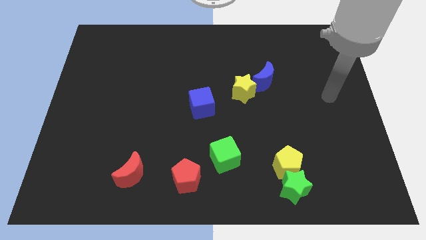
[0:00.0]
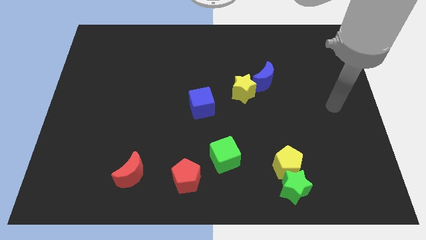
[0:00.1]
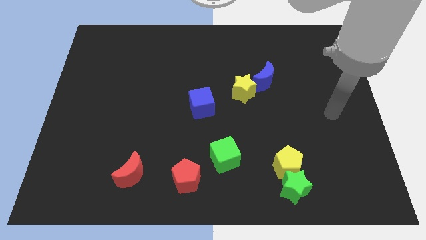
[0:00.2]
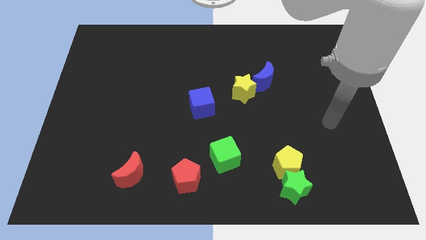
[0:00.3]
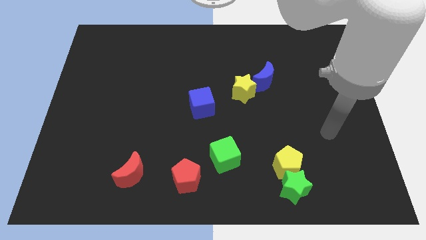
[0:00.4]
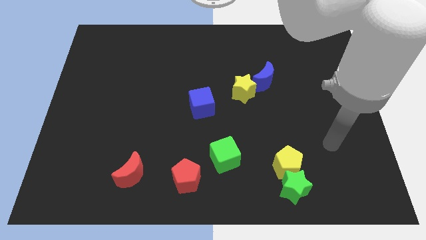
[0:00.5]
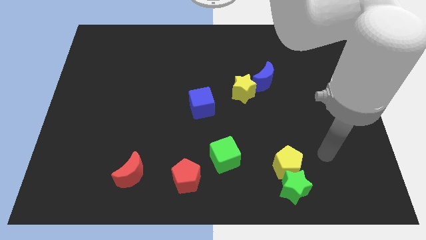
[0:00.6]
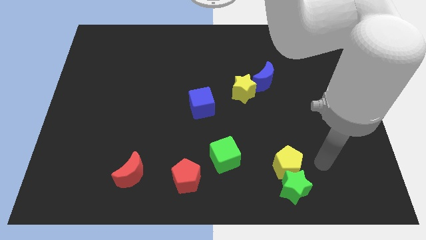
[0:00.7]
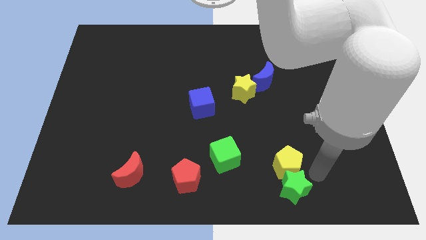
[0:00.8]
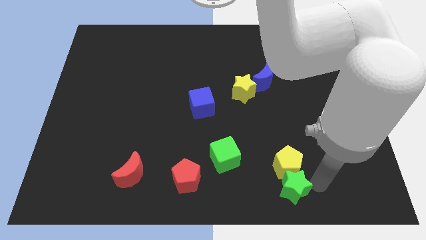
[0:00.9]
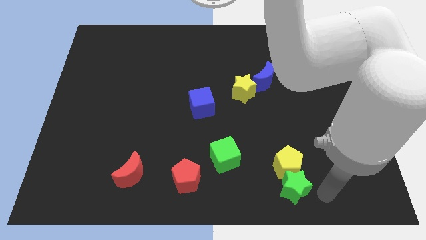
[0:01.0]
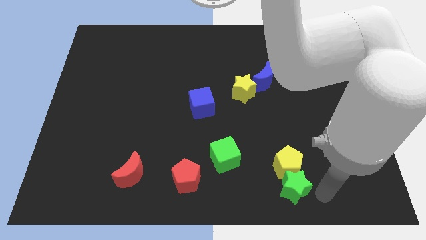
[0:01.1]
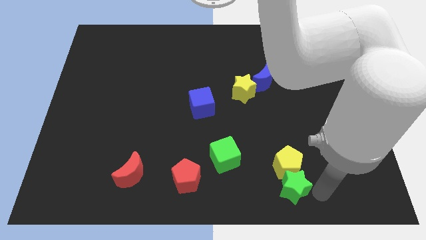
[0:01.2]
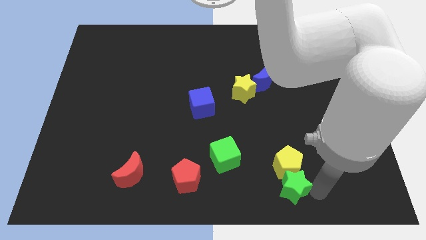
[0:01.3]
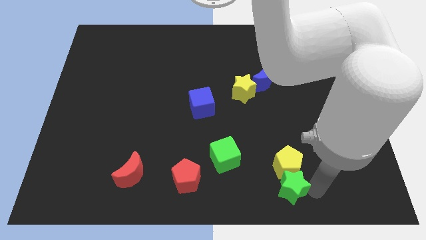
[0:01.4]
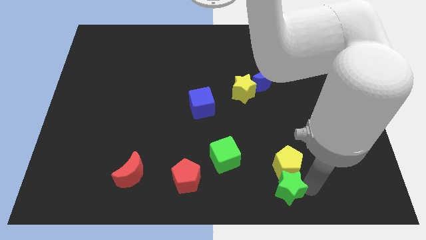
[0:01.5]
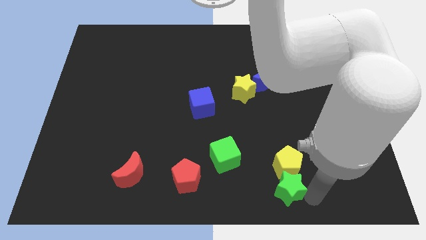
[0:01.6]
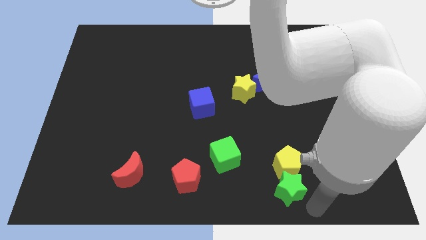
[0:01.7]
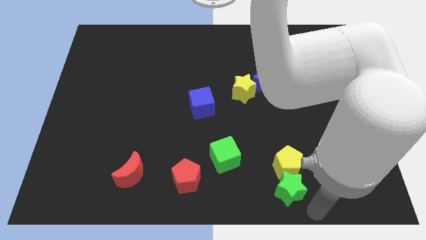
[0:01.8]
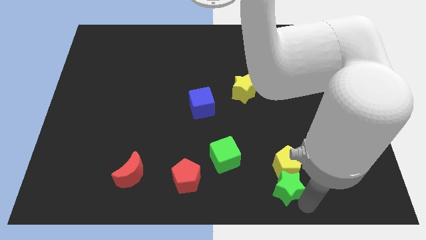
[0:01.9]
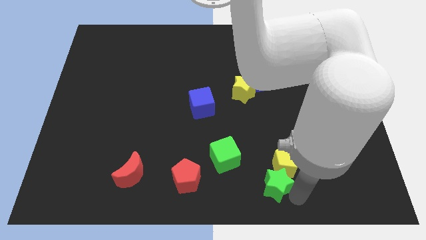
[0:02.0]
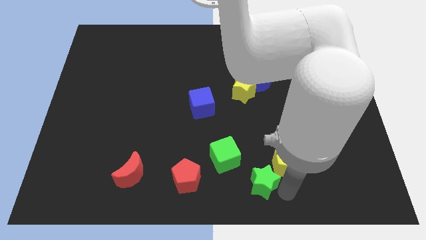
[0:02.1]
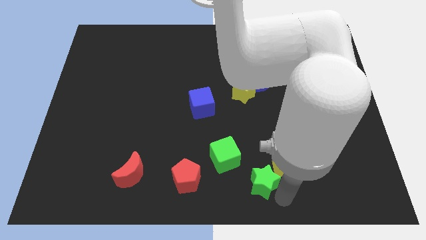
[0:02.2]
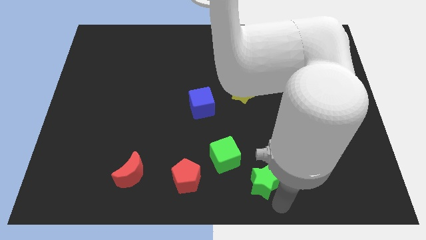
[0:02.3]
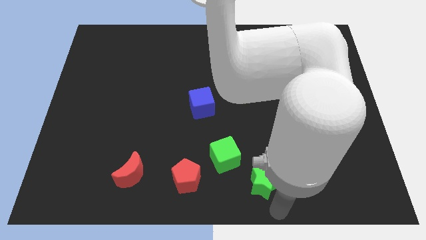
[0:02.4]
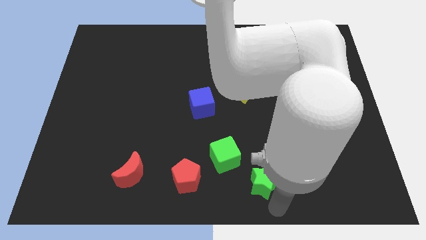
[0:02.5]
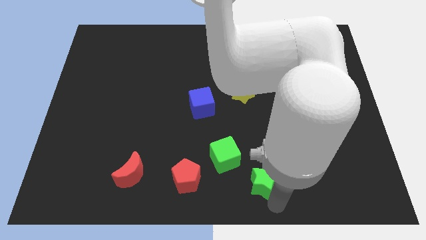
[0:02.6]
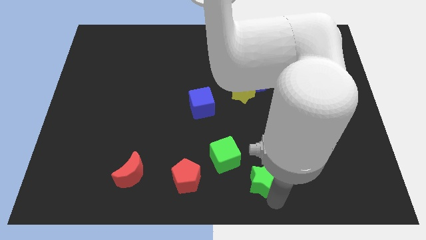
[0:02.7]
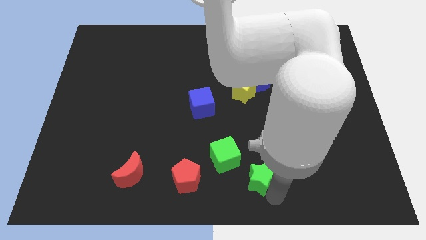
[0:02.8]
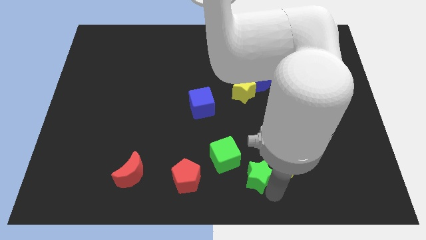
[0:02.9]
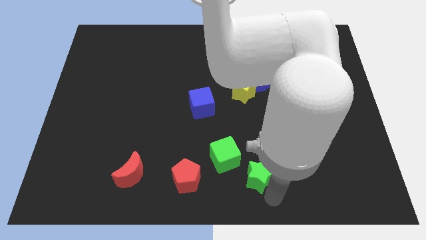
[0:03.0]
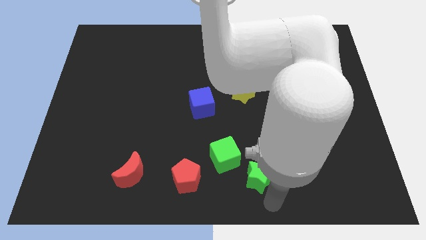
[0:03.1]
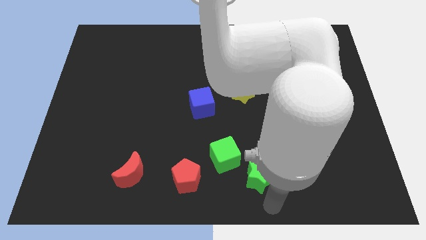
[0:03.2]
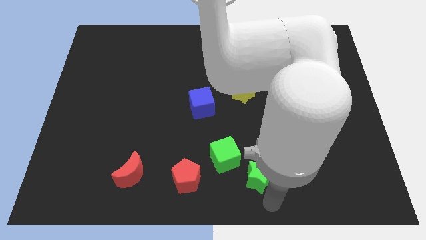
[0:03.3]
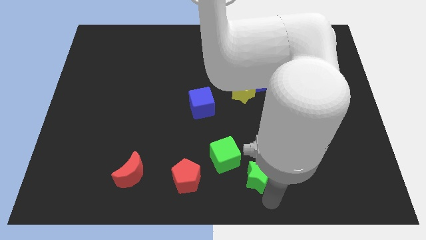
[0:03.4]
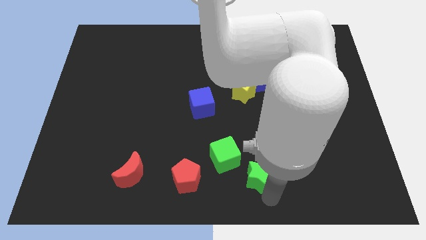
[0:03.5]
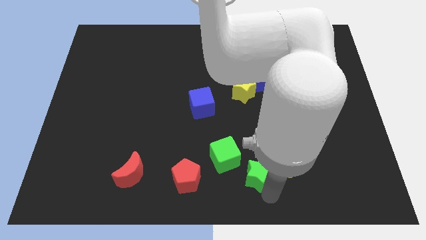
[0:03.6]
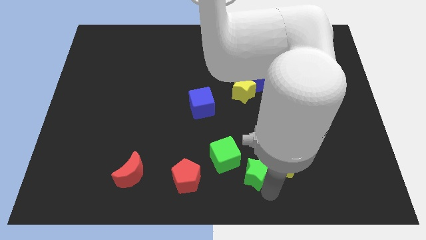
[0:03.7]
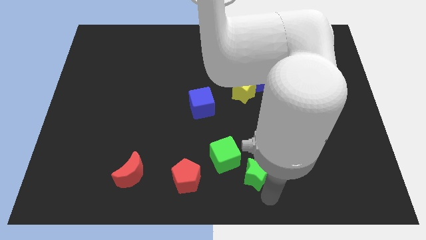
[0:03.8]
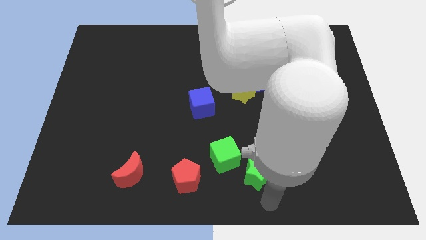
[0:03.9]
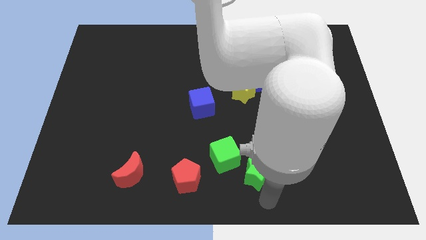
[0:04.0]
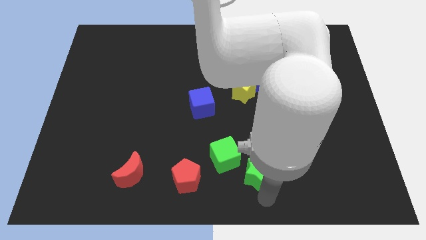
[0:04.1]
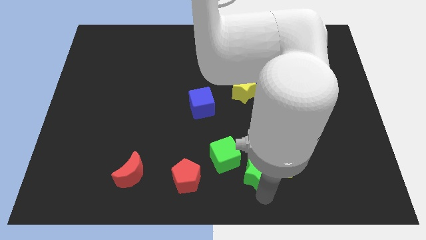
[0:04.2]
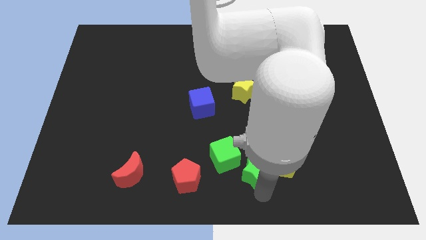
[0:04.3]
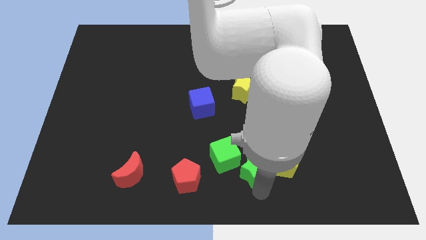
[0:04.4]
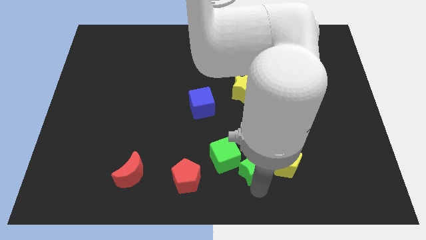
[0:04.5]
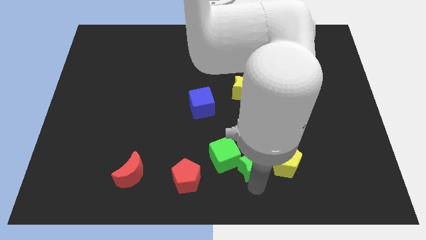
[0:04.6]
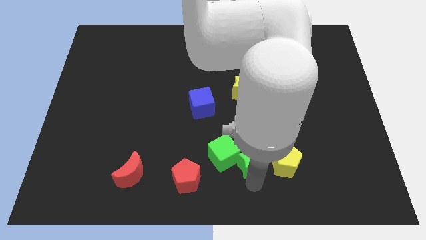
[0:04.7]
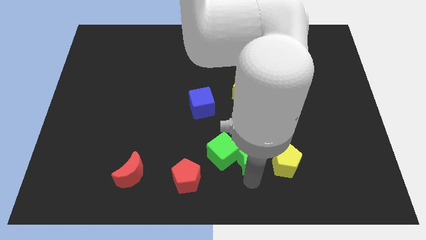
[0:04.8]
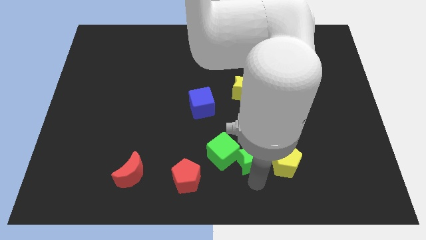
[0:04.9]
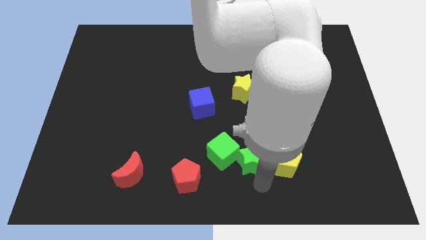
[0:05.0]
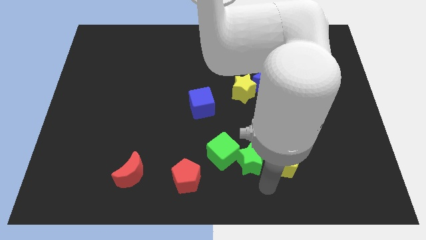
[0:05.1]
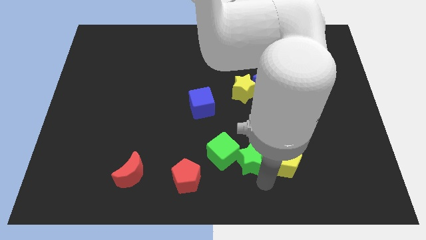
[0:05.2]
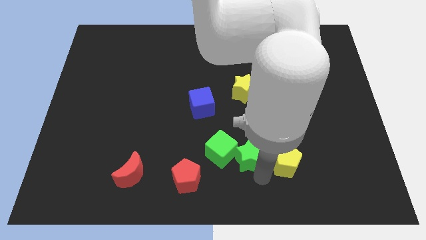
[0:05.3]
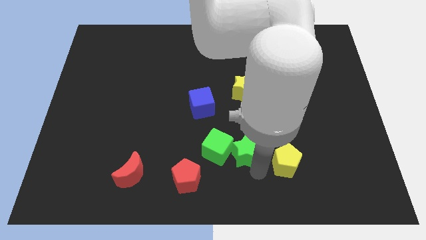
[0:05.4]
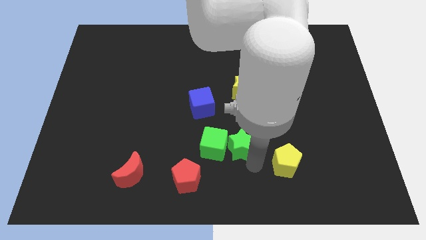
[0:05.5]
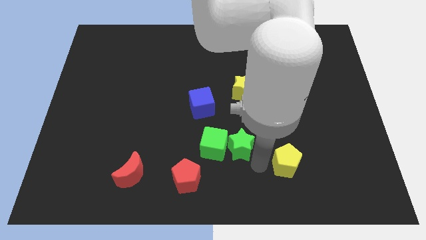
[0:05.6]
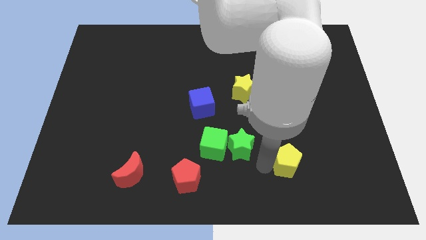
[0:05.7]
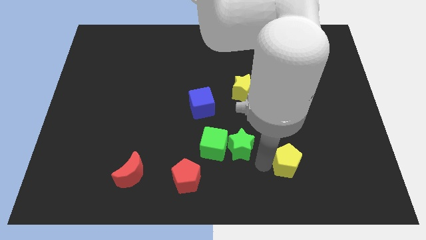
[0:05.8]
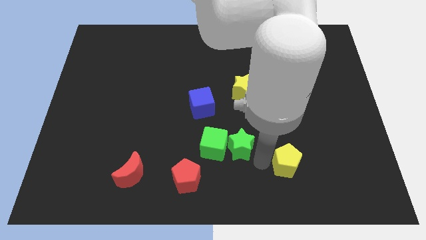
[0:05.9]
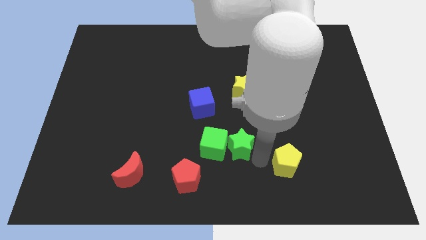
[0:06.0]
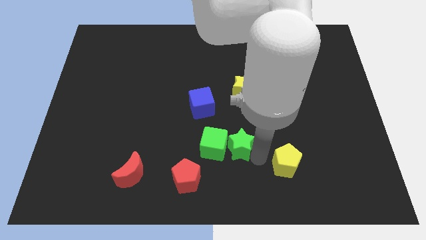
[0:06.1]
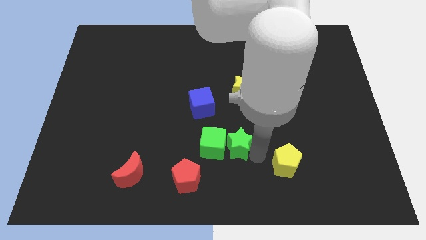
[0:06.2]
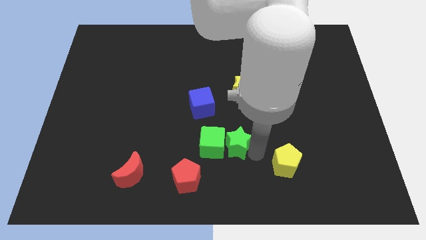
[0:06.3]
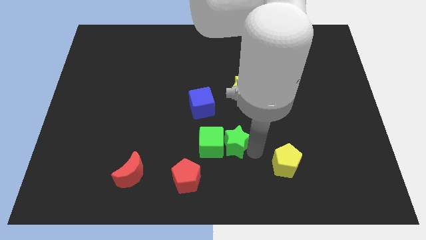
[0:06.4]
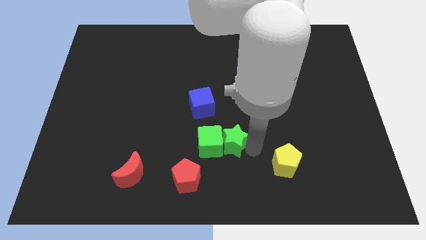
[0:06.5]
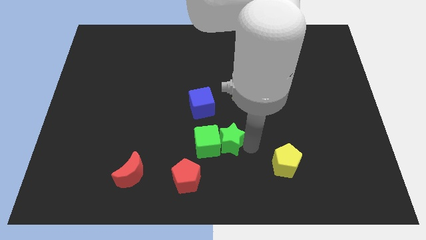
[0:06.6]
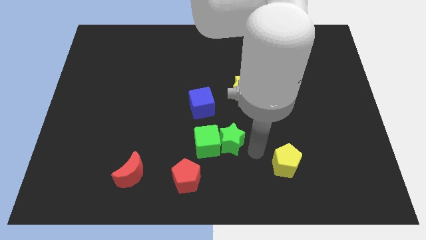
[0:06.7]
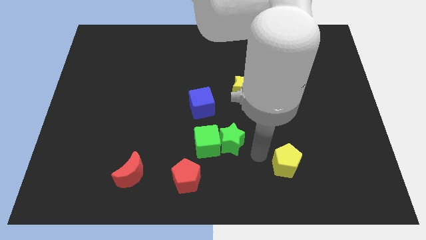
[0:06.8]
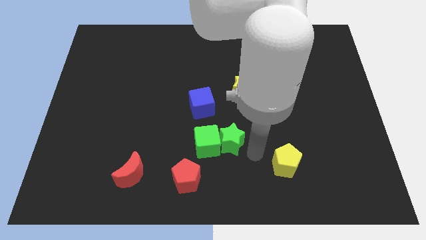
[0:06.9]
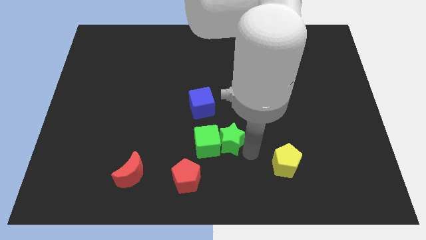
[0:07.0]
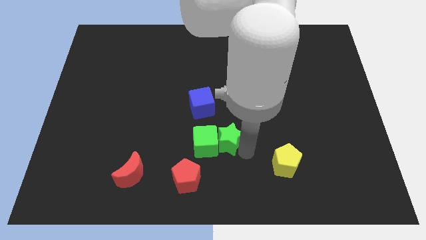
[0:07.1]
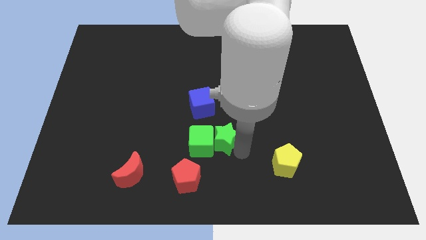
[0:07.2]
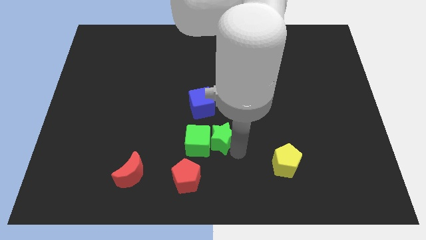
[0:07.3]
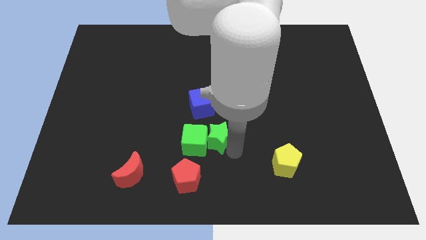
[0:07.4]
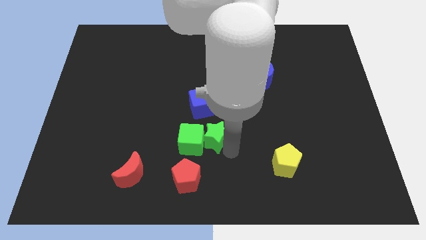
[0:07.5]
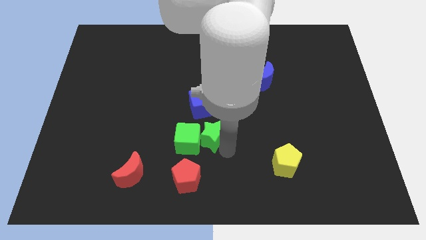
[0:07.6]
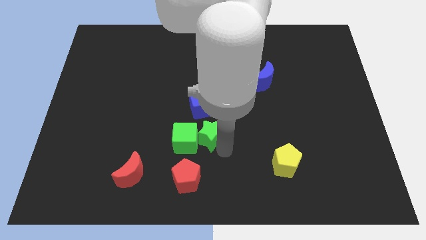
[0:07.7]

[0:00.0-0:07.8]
push the green star upwards and then to the left
